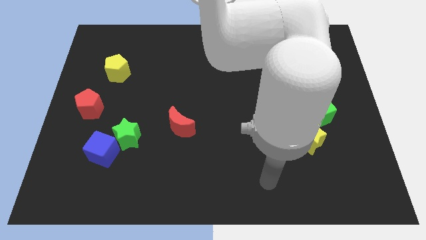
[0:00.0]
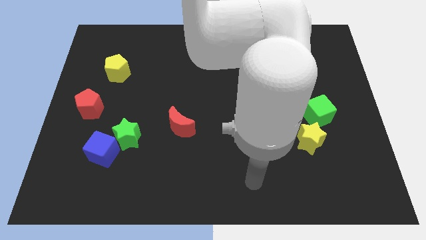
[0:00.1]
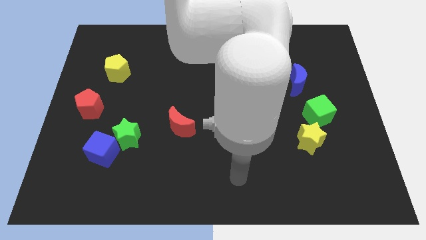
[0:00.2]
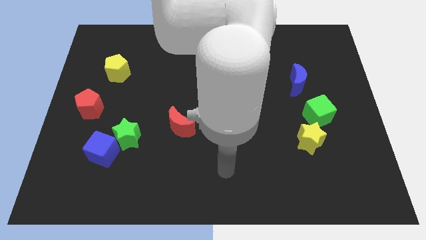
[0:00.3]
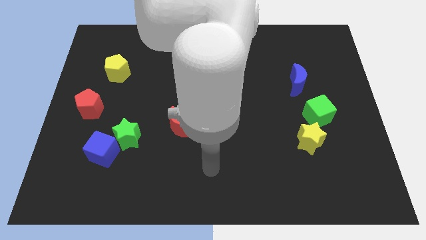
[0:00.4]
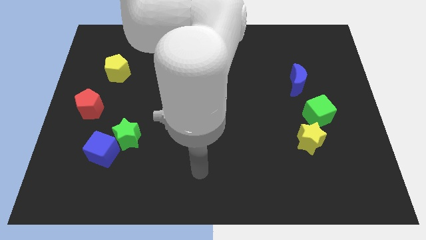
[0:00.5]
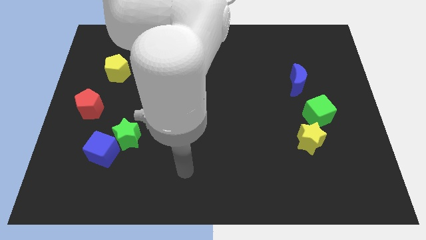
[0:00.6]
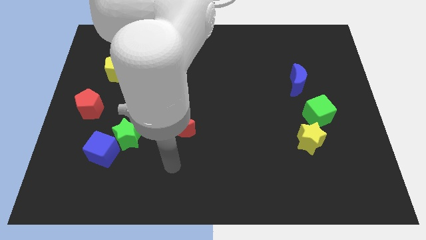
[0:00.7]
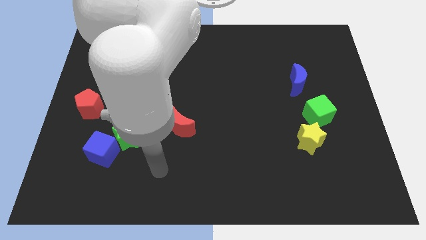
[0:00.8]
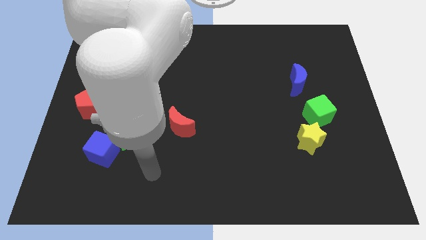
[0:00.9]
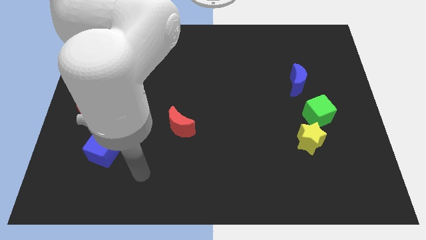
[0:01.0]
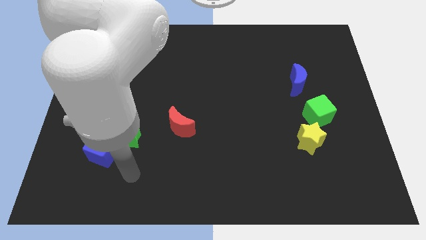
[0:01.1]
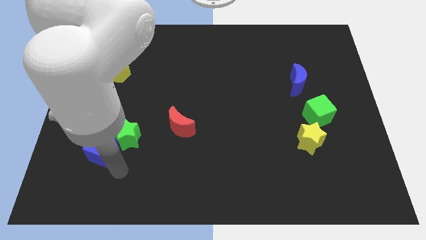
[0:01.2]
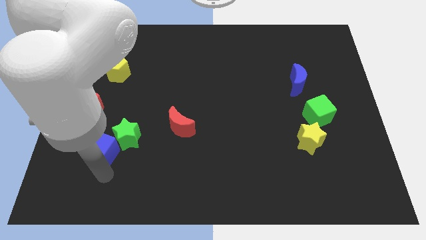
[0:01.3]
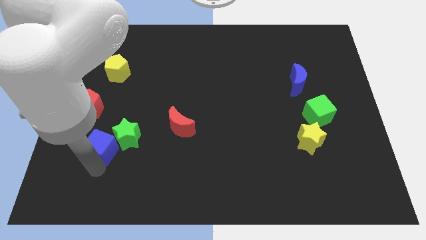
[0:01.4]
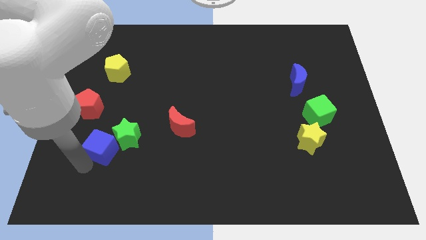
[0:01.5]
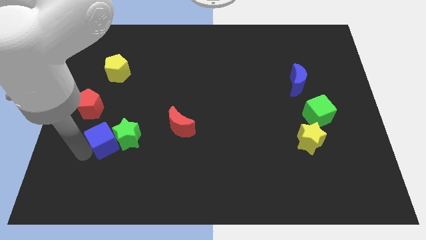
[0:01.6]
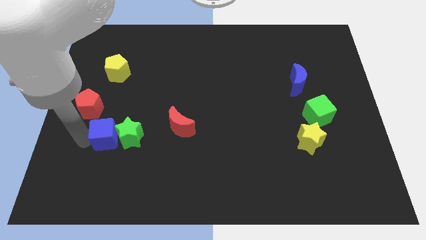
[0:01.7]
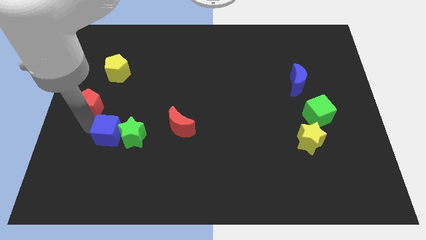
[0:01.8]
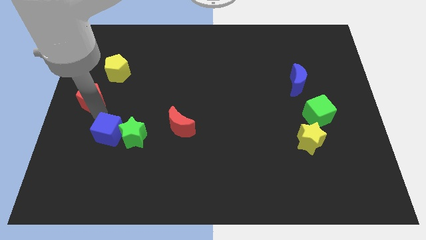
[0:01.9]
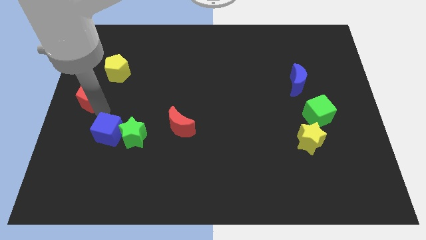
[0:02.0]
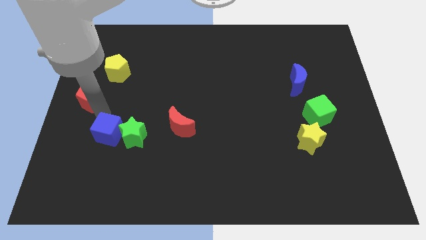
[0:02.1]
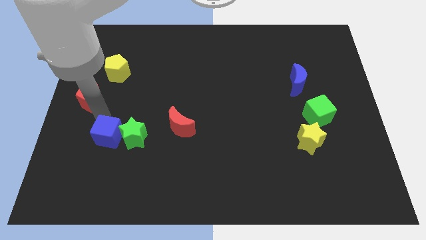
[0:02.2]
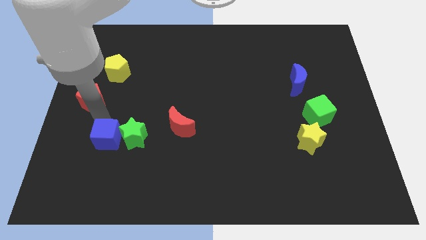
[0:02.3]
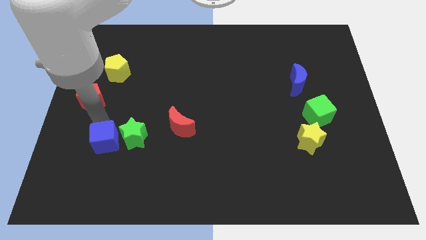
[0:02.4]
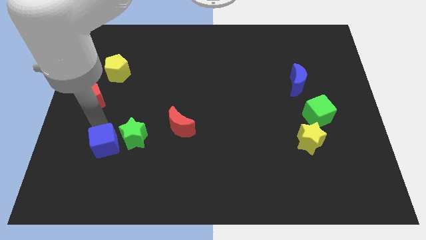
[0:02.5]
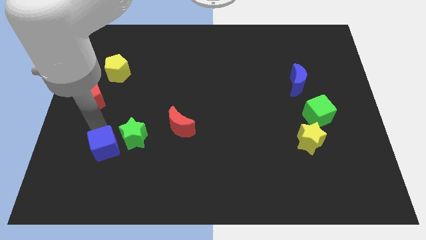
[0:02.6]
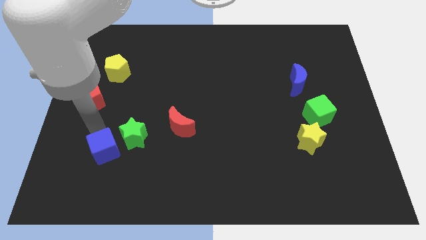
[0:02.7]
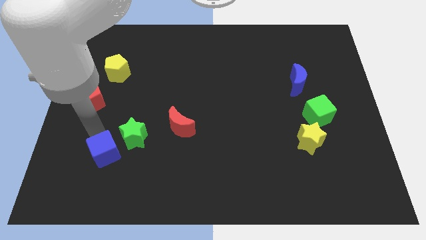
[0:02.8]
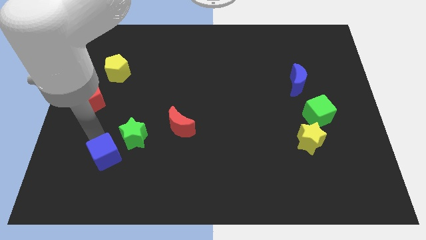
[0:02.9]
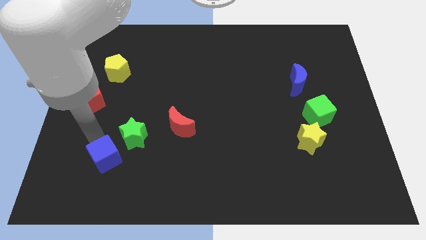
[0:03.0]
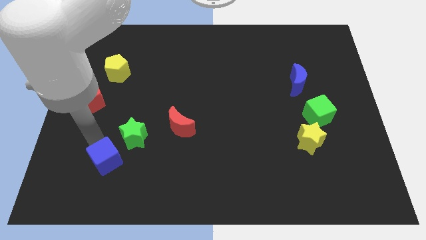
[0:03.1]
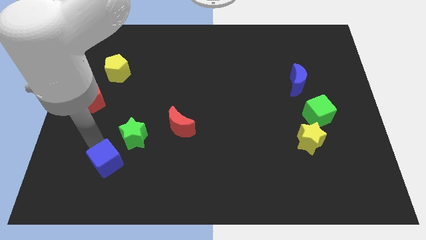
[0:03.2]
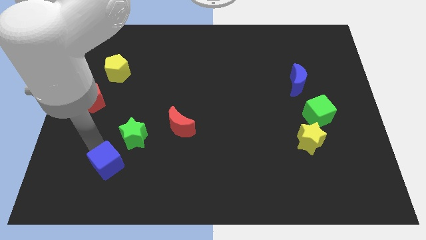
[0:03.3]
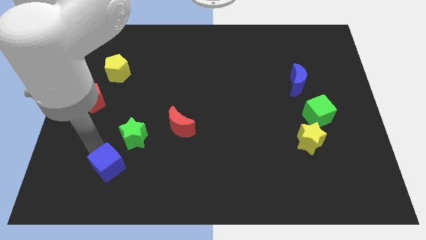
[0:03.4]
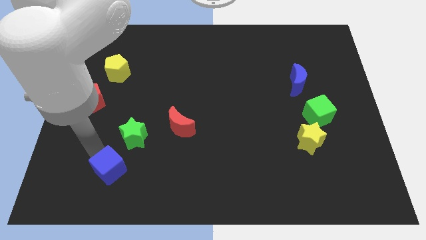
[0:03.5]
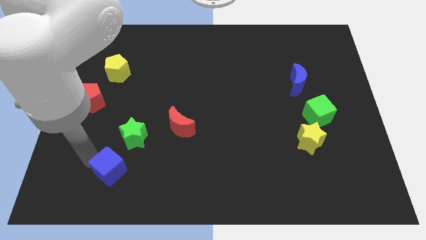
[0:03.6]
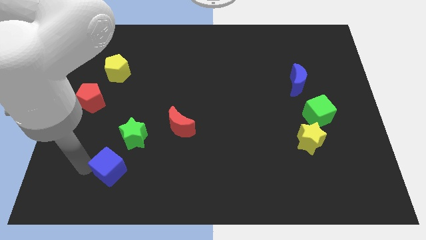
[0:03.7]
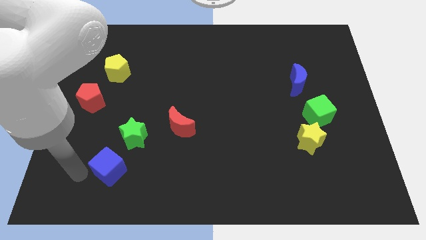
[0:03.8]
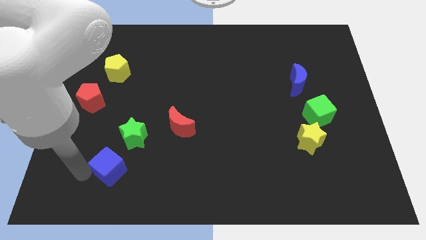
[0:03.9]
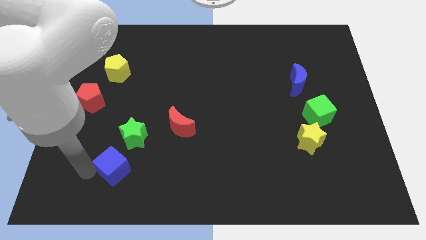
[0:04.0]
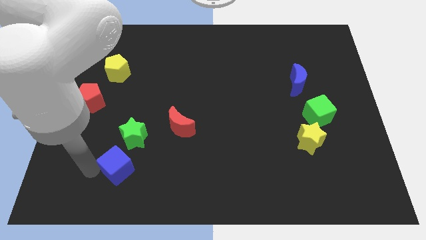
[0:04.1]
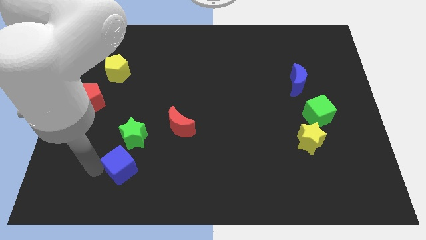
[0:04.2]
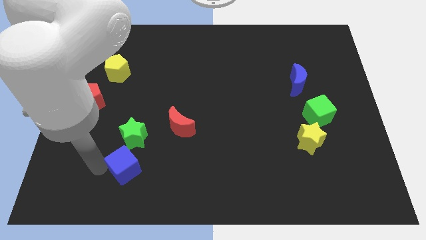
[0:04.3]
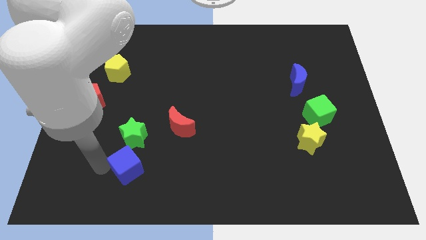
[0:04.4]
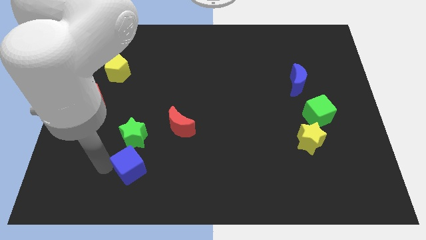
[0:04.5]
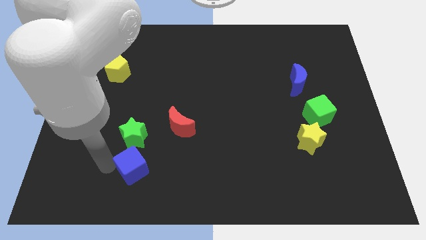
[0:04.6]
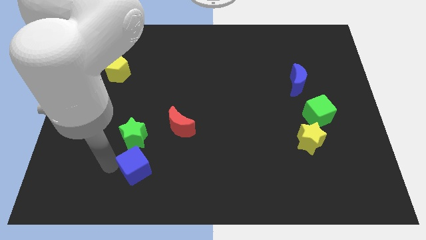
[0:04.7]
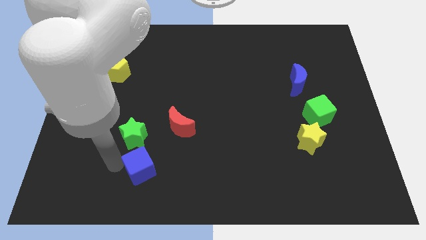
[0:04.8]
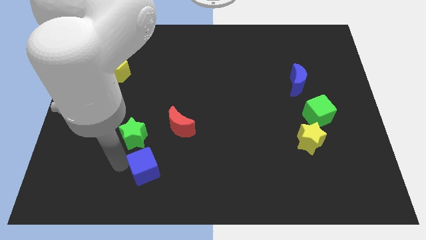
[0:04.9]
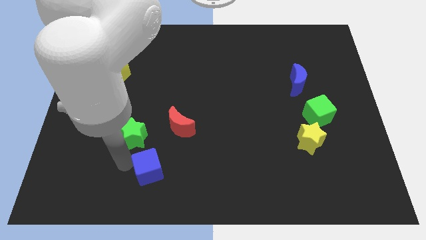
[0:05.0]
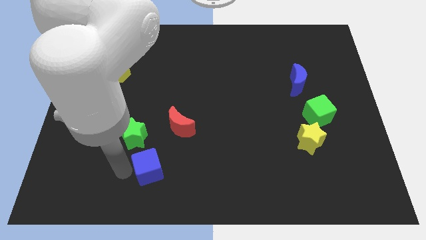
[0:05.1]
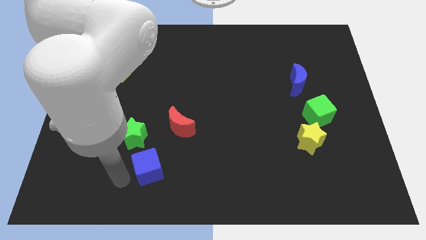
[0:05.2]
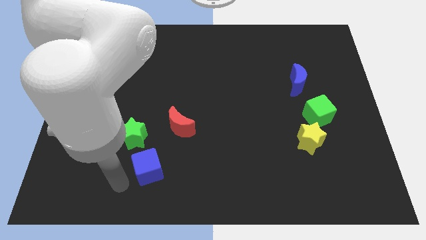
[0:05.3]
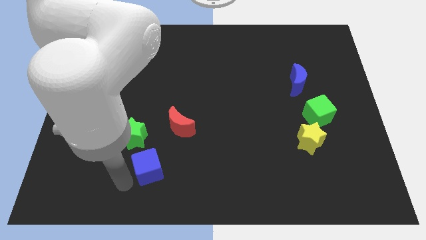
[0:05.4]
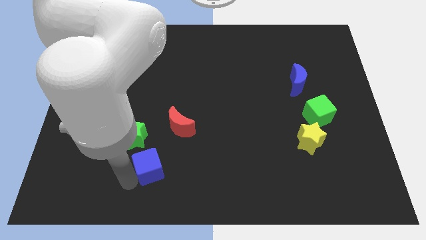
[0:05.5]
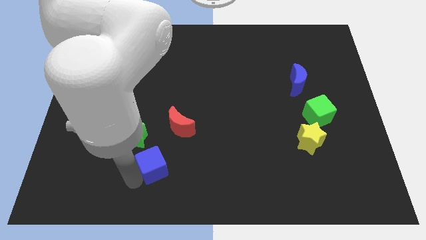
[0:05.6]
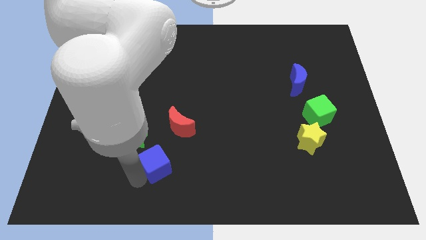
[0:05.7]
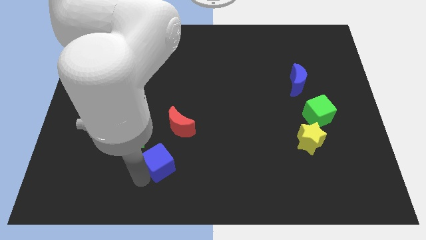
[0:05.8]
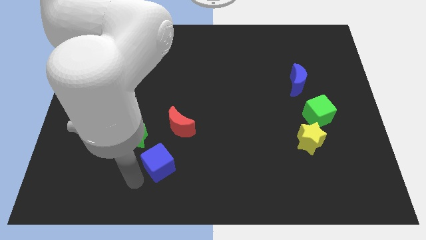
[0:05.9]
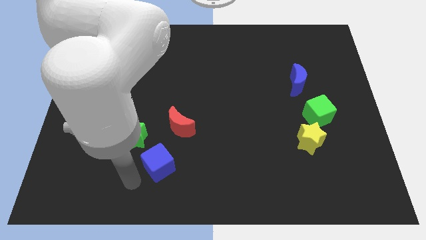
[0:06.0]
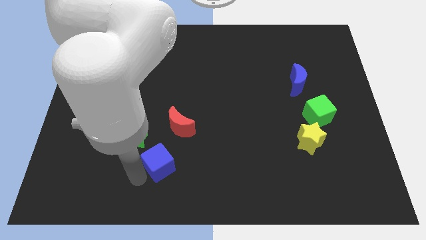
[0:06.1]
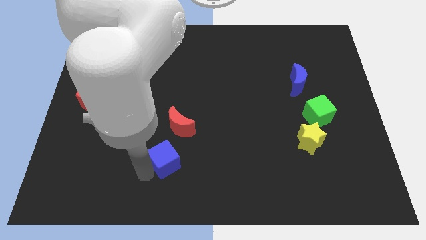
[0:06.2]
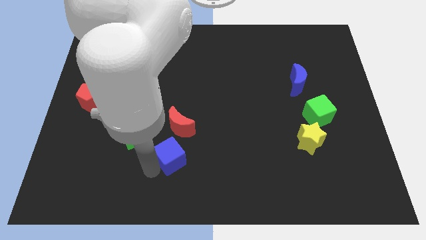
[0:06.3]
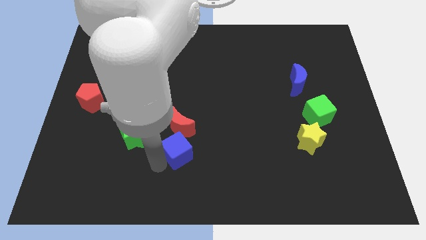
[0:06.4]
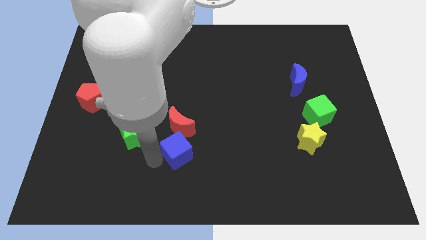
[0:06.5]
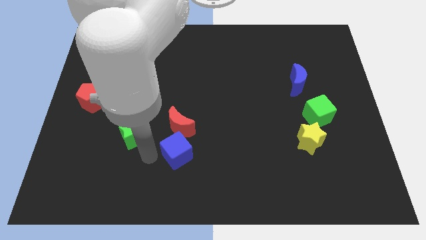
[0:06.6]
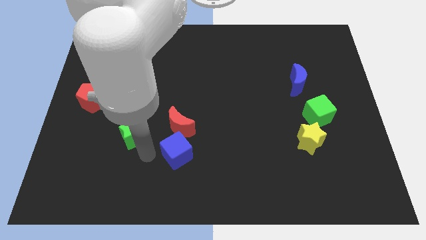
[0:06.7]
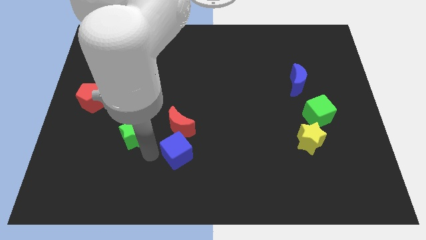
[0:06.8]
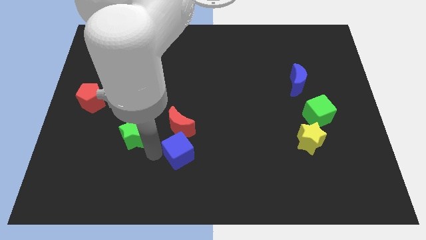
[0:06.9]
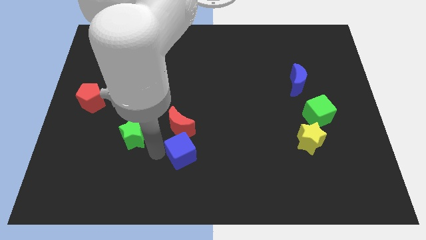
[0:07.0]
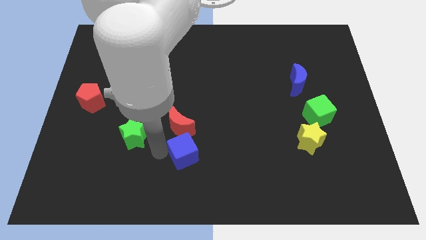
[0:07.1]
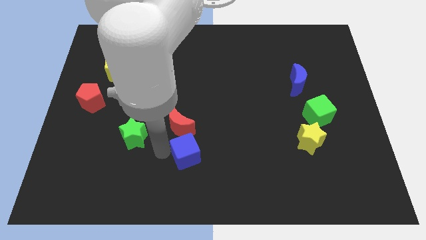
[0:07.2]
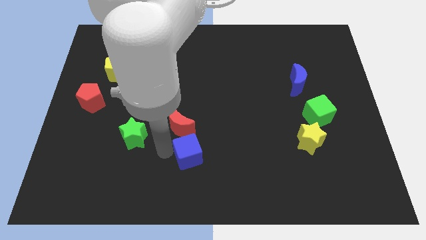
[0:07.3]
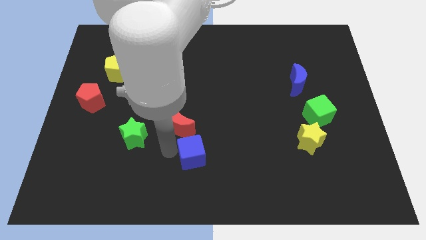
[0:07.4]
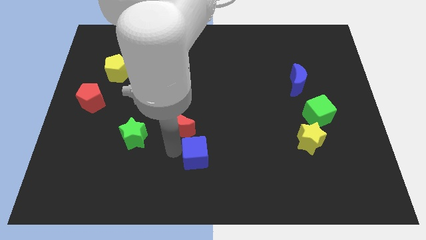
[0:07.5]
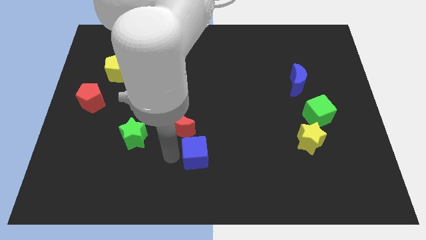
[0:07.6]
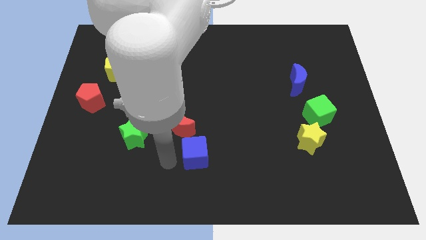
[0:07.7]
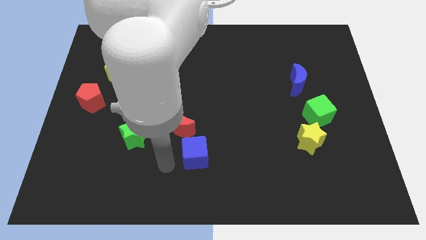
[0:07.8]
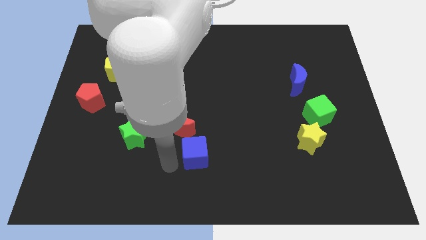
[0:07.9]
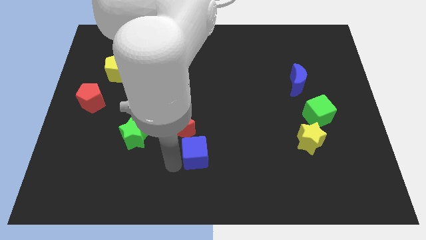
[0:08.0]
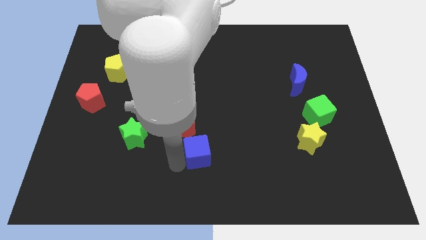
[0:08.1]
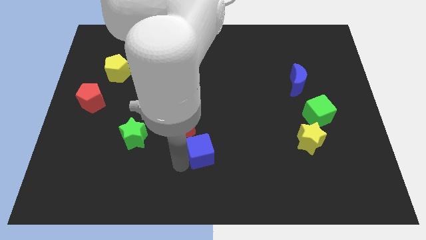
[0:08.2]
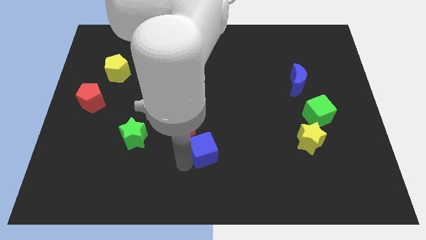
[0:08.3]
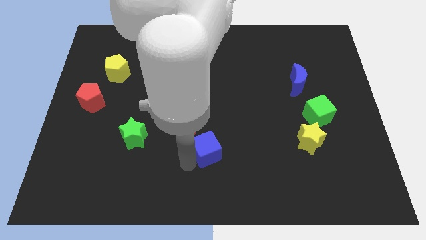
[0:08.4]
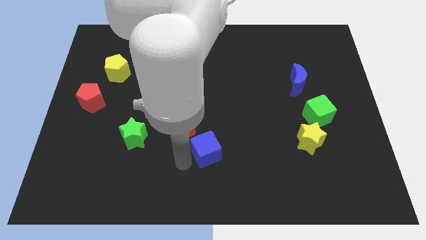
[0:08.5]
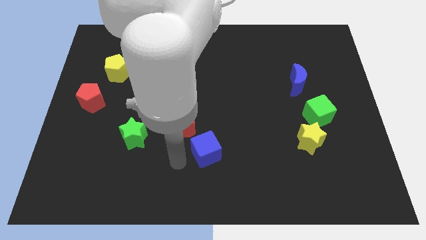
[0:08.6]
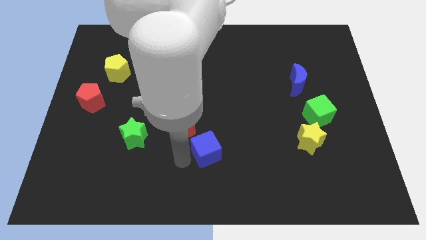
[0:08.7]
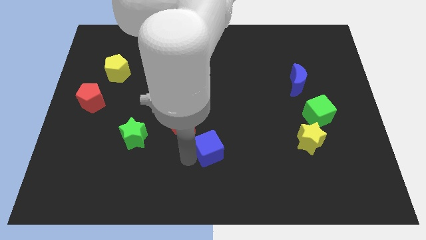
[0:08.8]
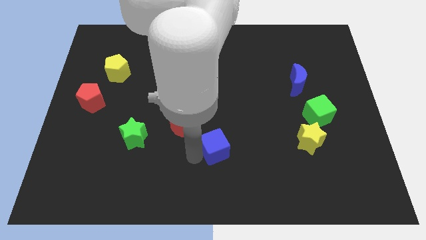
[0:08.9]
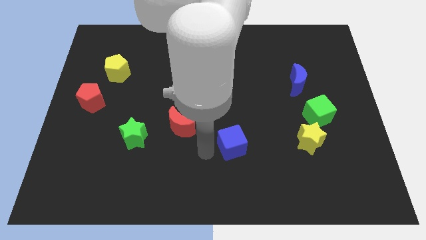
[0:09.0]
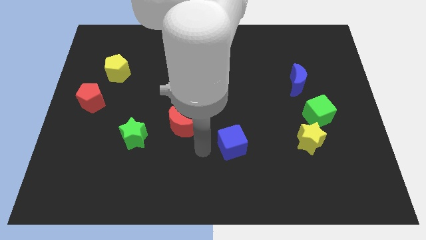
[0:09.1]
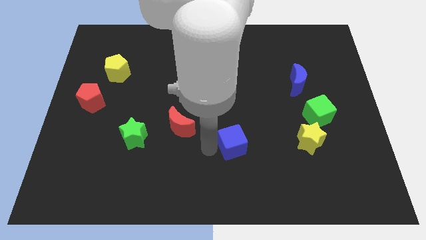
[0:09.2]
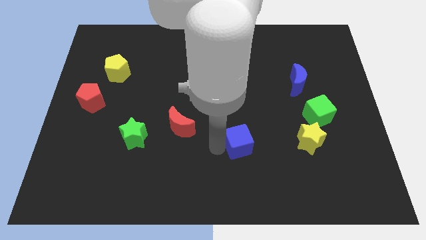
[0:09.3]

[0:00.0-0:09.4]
put the blue cube to the left of the yellow star
